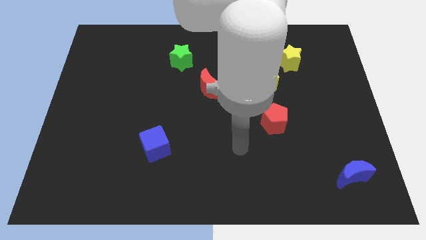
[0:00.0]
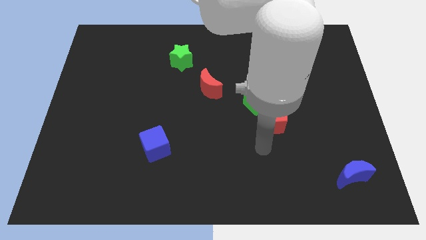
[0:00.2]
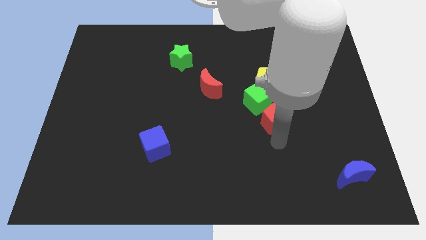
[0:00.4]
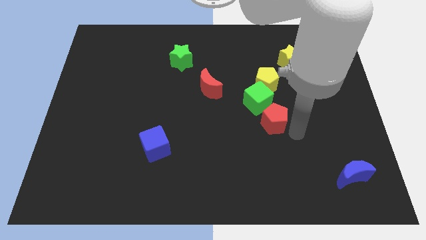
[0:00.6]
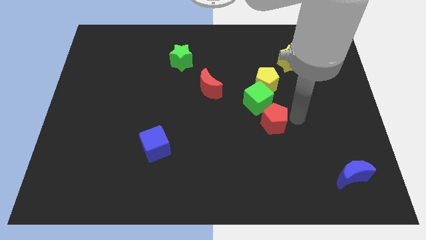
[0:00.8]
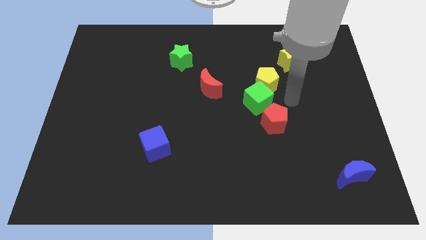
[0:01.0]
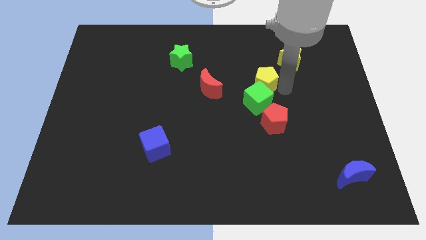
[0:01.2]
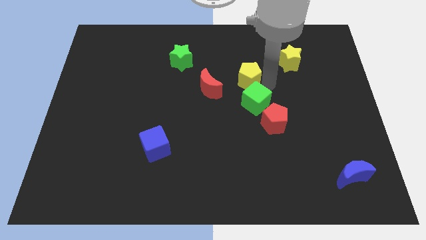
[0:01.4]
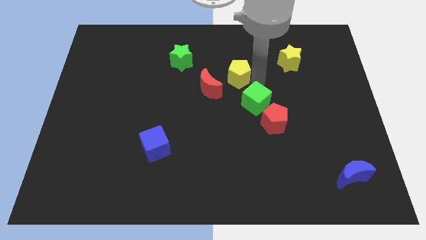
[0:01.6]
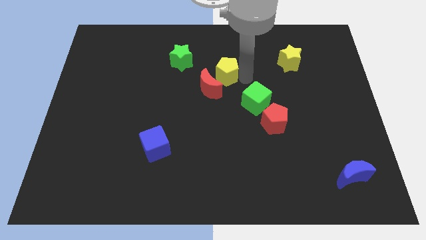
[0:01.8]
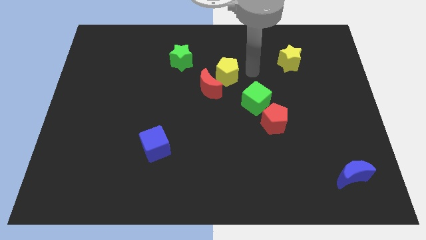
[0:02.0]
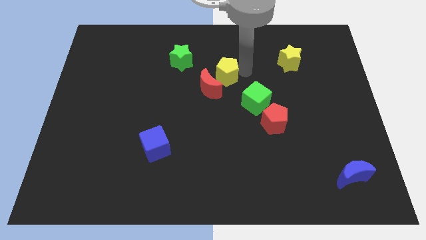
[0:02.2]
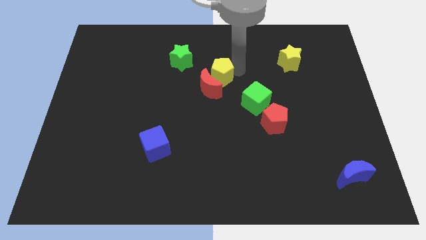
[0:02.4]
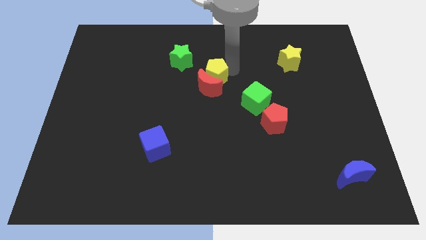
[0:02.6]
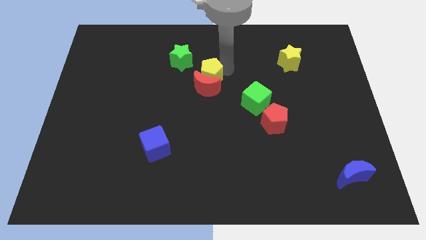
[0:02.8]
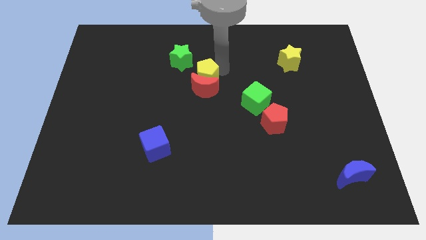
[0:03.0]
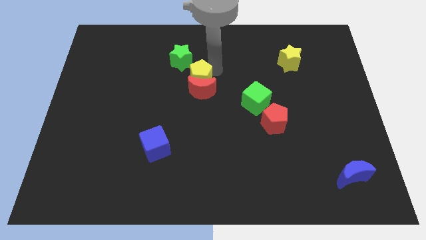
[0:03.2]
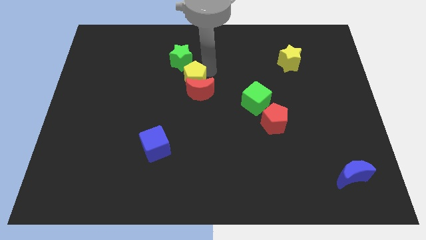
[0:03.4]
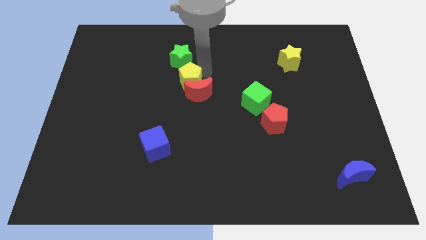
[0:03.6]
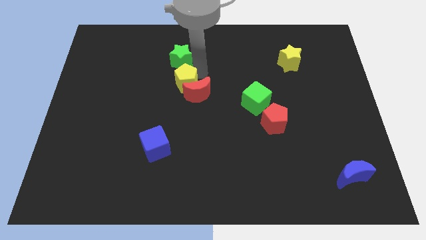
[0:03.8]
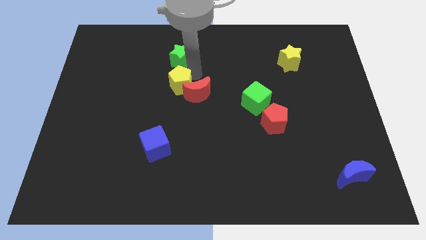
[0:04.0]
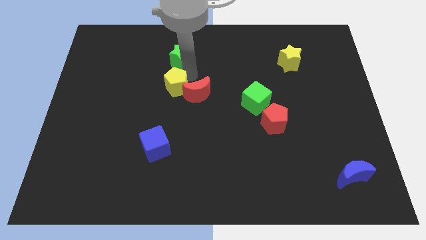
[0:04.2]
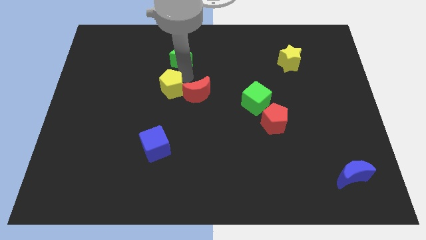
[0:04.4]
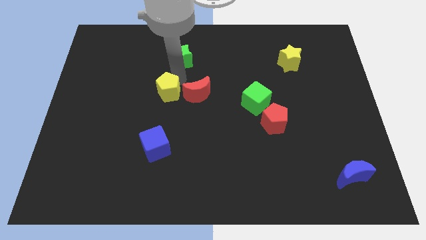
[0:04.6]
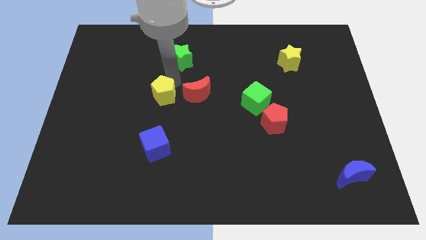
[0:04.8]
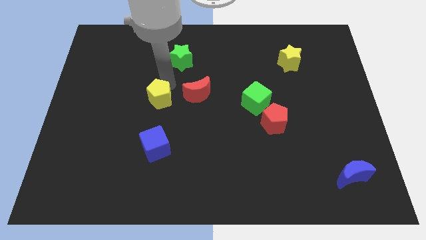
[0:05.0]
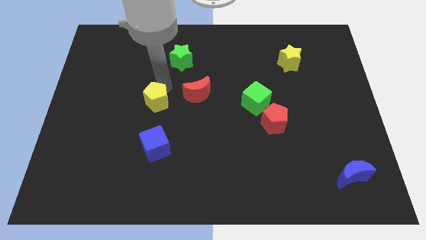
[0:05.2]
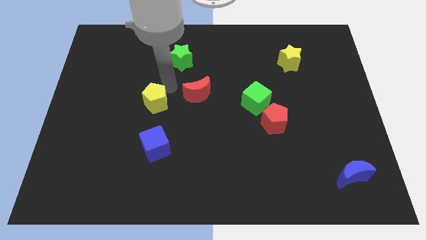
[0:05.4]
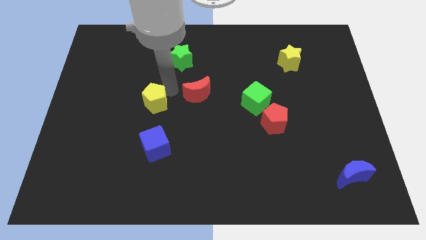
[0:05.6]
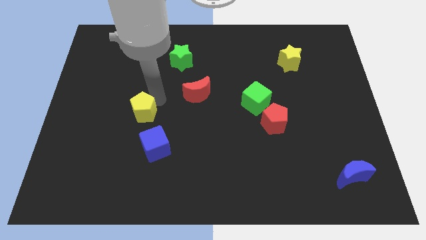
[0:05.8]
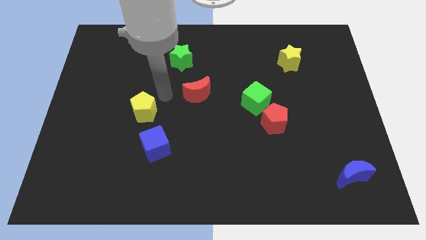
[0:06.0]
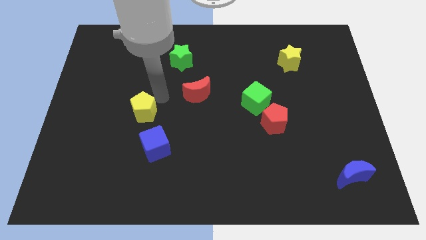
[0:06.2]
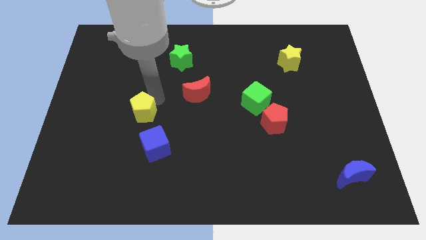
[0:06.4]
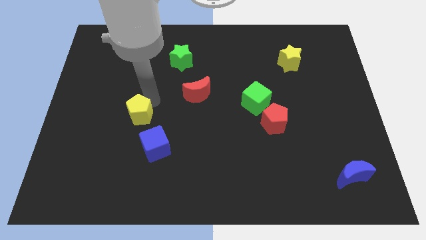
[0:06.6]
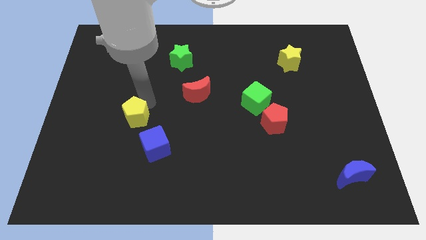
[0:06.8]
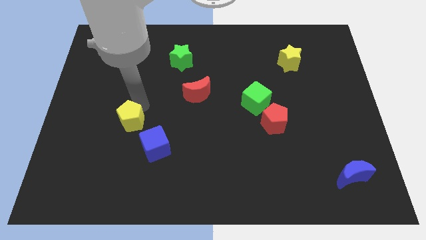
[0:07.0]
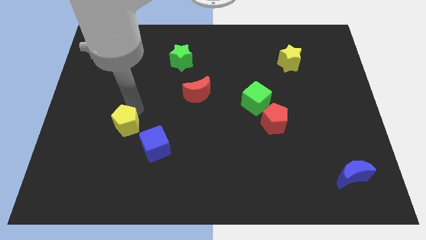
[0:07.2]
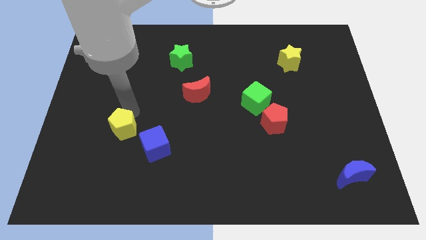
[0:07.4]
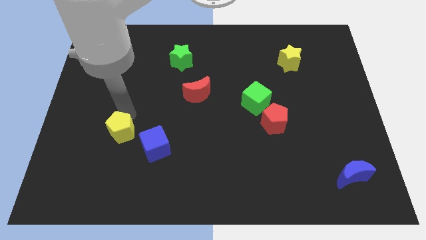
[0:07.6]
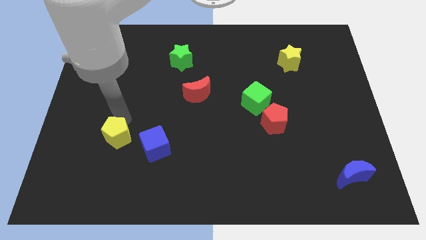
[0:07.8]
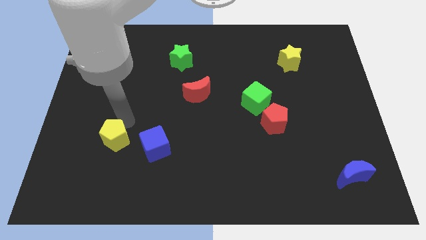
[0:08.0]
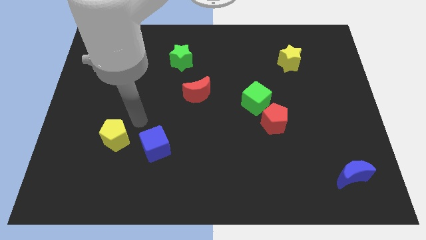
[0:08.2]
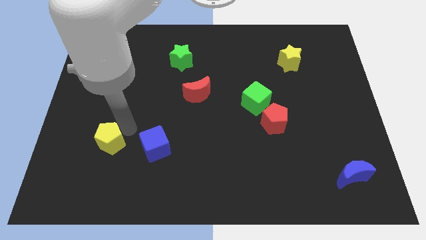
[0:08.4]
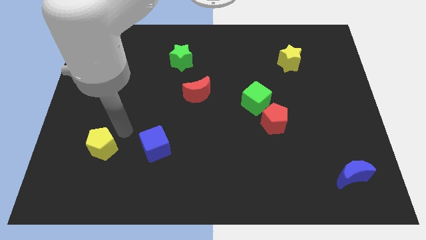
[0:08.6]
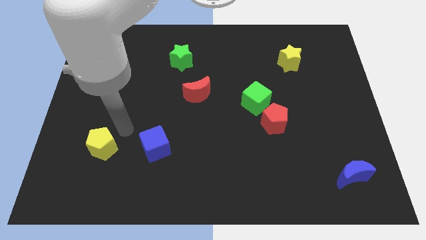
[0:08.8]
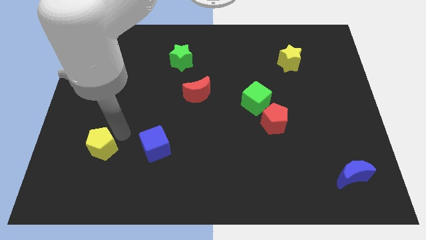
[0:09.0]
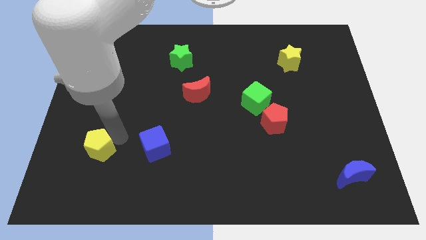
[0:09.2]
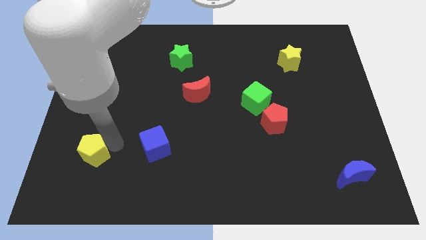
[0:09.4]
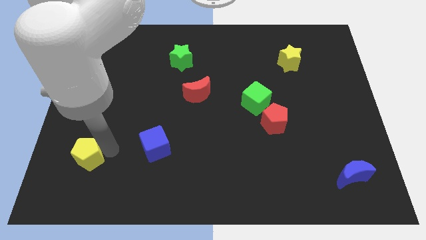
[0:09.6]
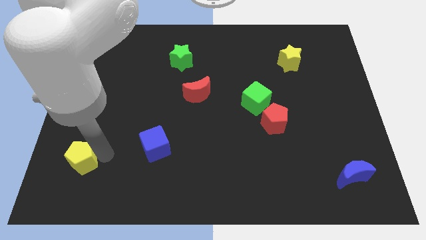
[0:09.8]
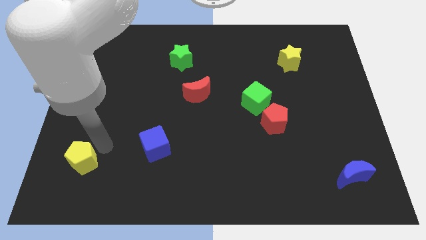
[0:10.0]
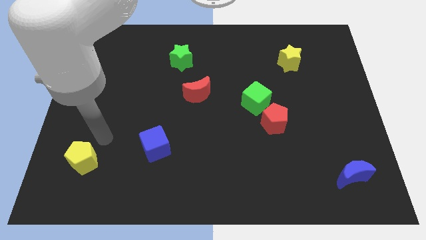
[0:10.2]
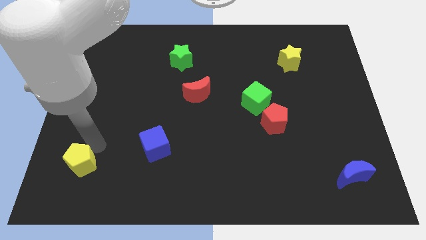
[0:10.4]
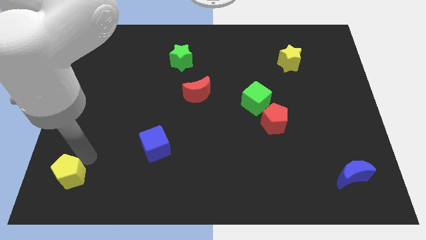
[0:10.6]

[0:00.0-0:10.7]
move the yellow pentagon to the bottom left corner

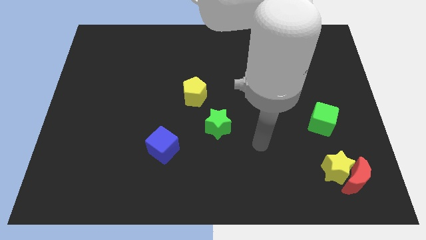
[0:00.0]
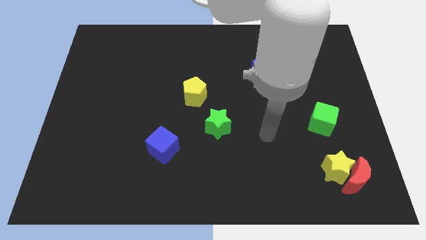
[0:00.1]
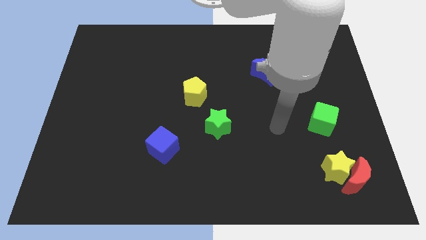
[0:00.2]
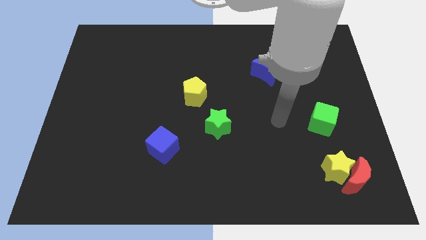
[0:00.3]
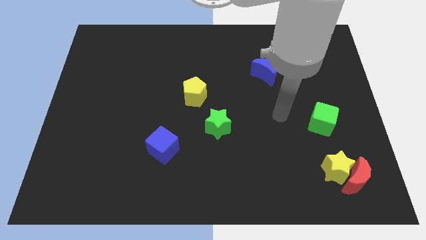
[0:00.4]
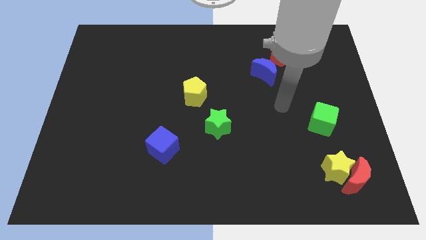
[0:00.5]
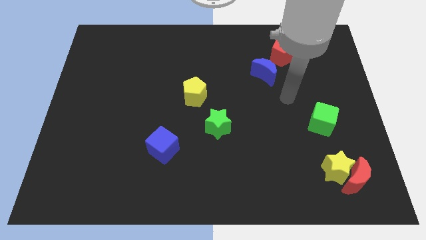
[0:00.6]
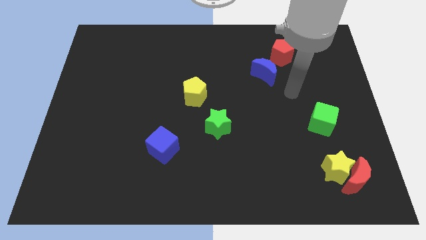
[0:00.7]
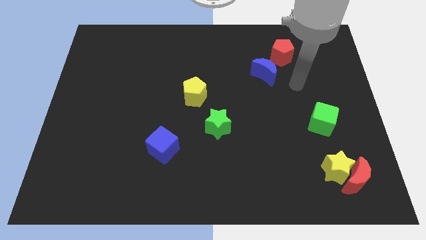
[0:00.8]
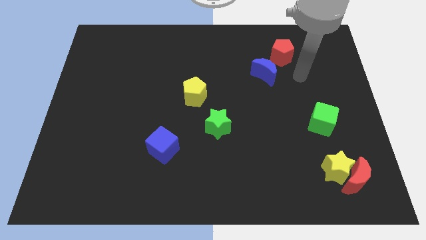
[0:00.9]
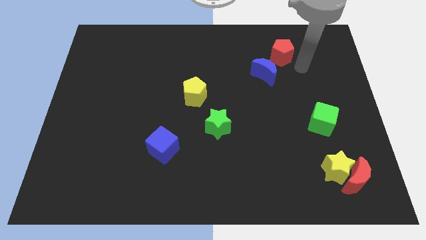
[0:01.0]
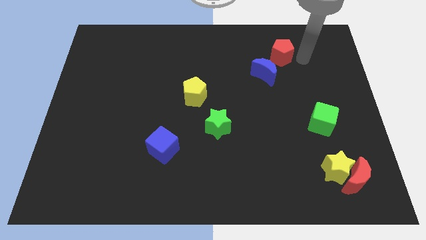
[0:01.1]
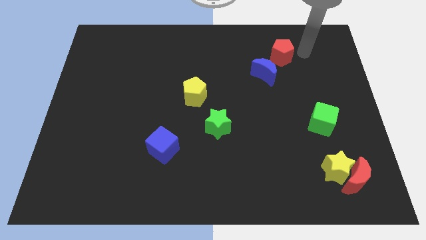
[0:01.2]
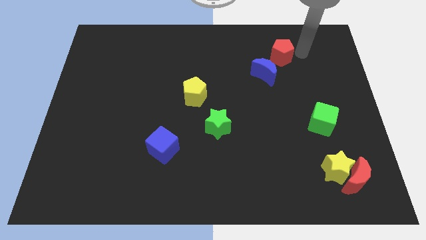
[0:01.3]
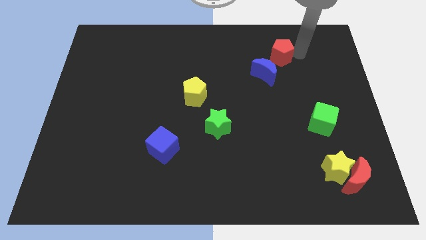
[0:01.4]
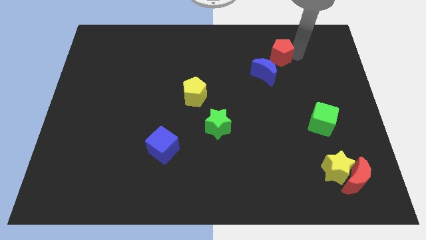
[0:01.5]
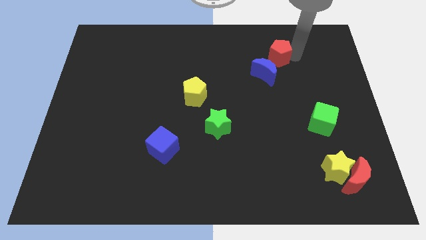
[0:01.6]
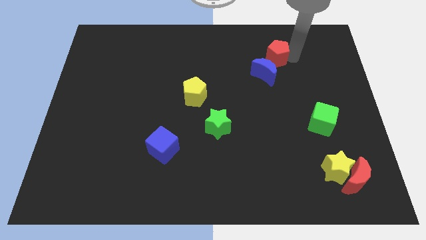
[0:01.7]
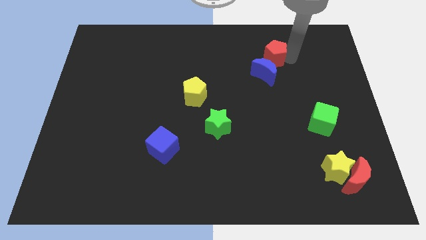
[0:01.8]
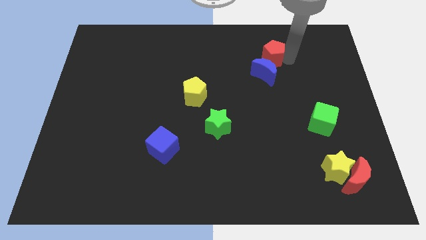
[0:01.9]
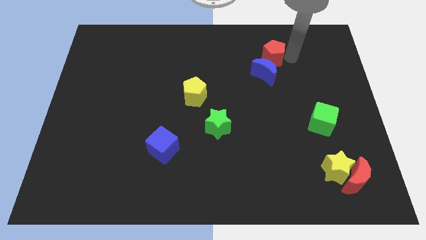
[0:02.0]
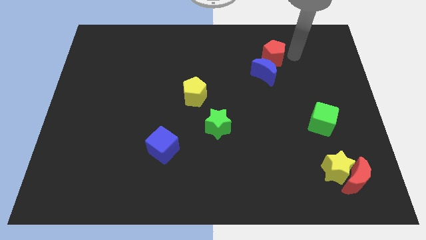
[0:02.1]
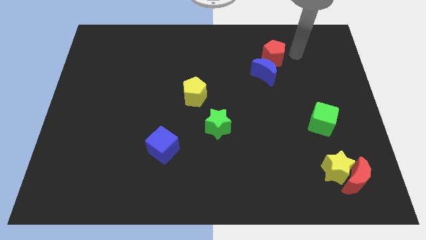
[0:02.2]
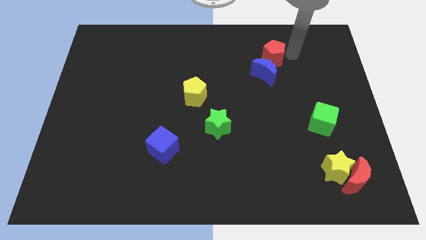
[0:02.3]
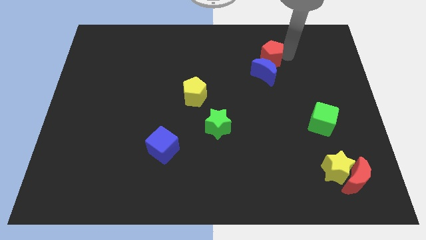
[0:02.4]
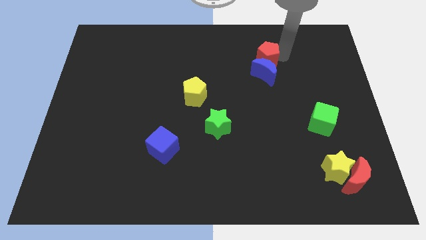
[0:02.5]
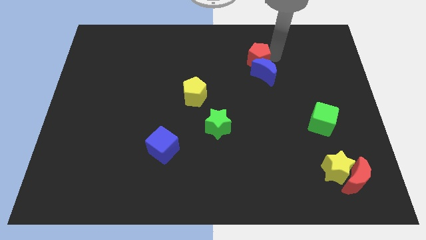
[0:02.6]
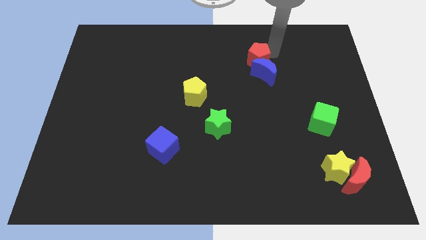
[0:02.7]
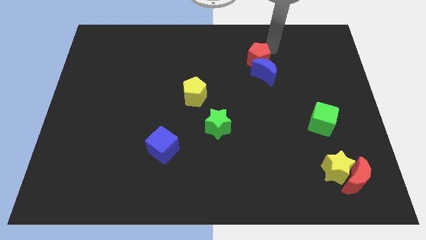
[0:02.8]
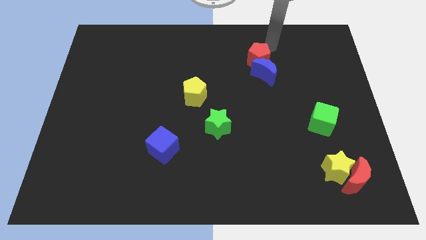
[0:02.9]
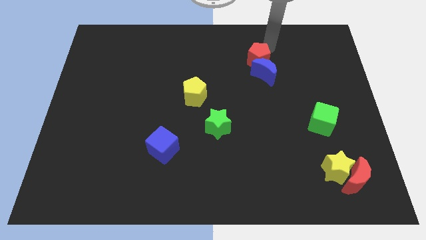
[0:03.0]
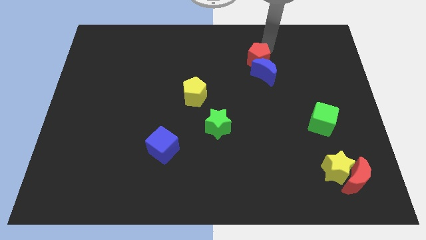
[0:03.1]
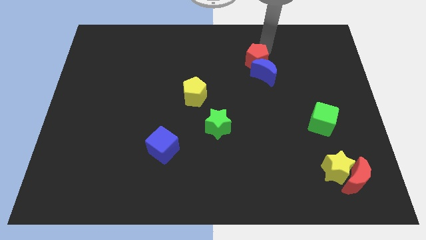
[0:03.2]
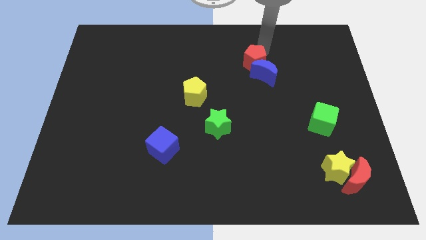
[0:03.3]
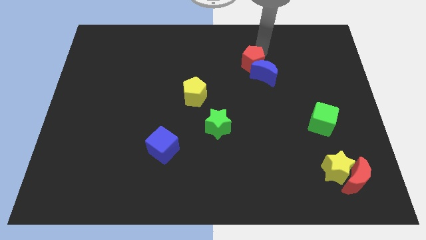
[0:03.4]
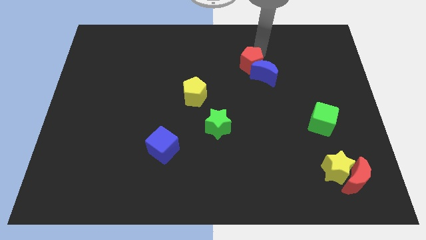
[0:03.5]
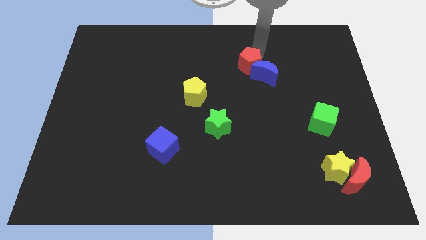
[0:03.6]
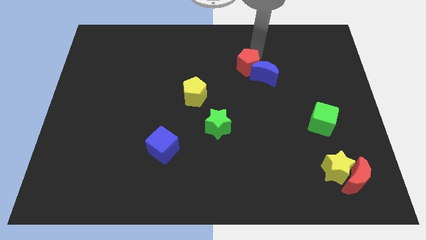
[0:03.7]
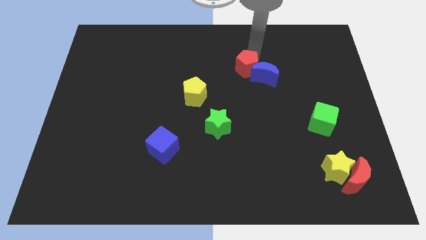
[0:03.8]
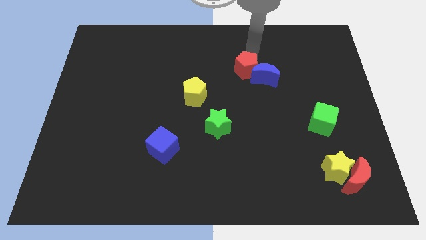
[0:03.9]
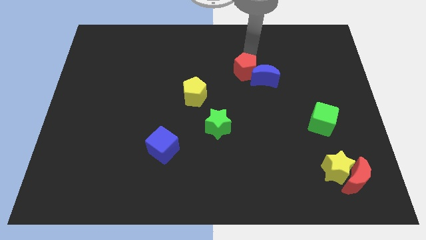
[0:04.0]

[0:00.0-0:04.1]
push the red pentagon to the middle of the board
